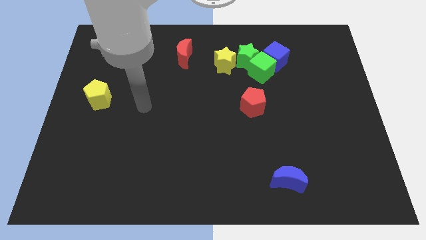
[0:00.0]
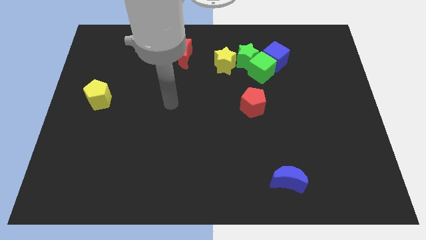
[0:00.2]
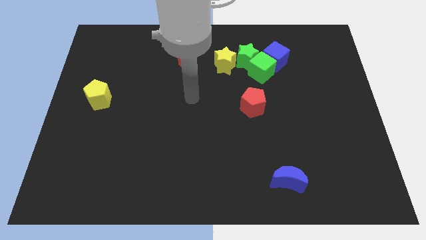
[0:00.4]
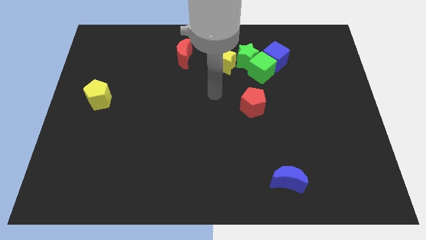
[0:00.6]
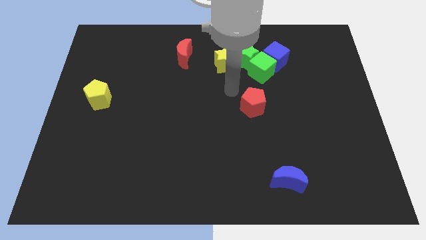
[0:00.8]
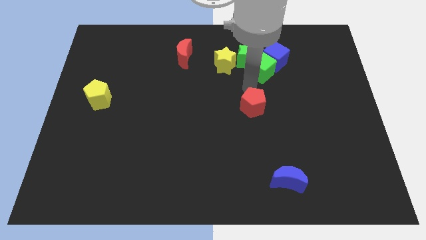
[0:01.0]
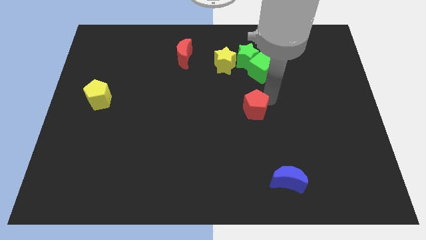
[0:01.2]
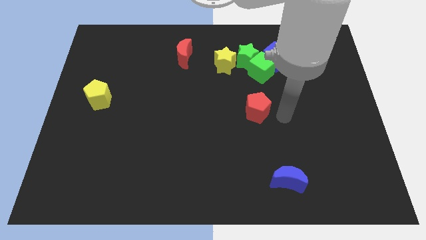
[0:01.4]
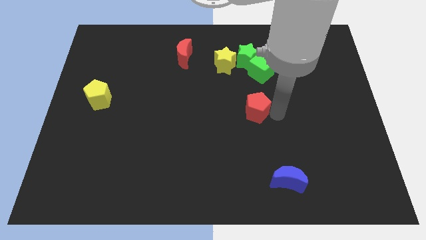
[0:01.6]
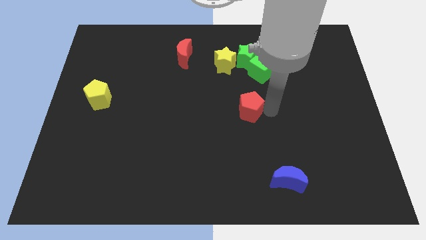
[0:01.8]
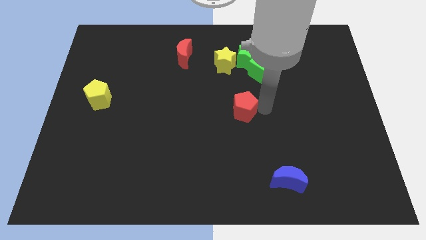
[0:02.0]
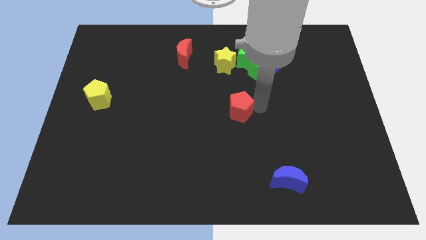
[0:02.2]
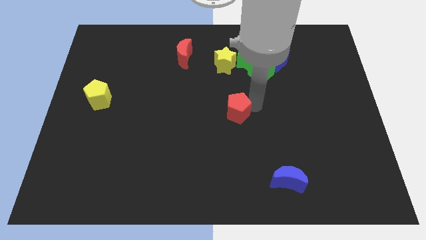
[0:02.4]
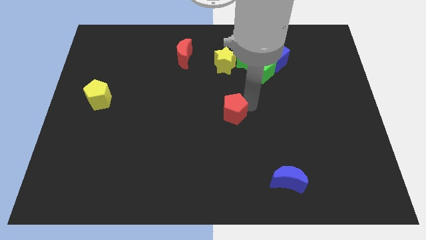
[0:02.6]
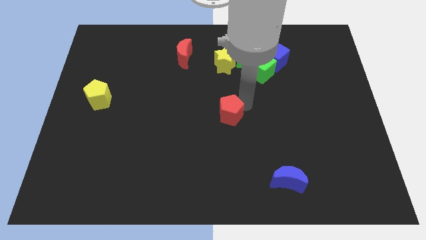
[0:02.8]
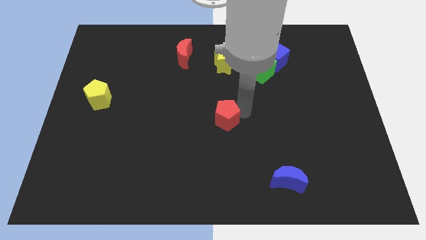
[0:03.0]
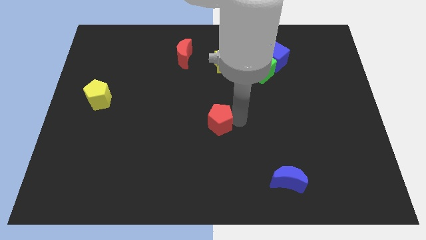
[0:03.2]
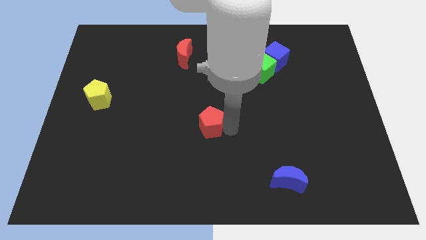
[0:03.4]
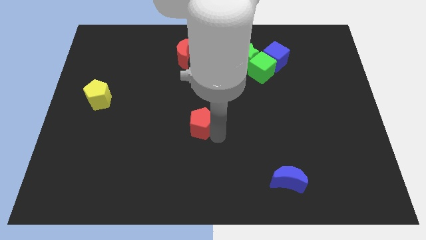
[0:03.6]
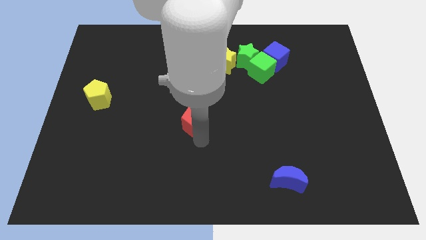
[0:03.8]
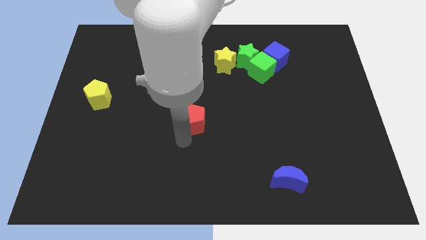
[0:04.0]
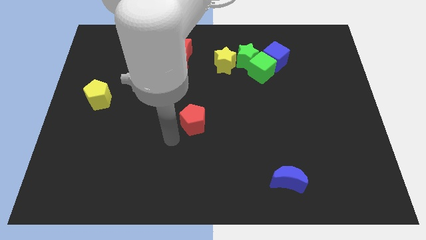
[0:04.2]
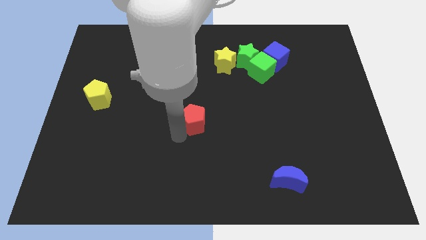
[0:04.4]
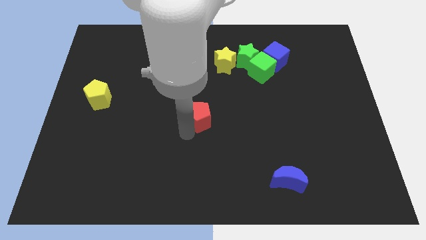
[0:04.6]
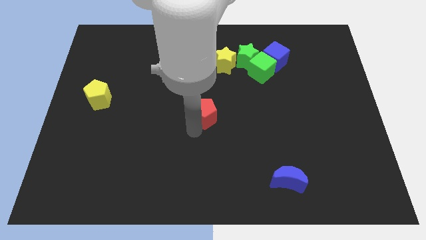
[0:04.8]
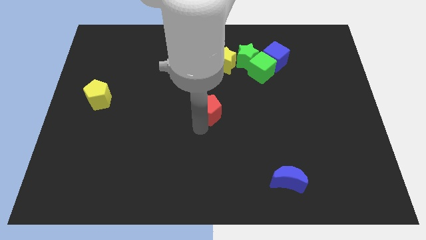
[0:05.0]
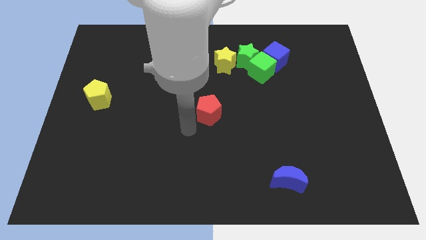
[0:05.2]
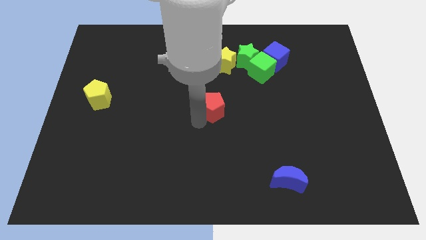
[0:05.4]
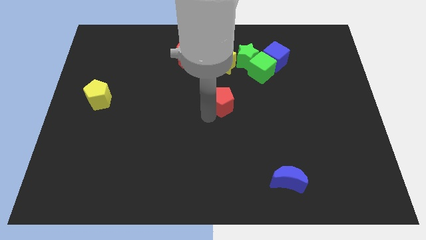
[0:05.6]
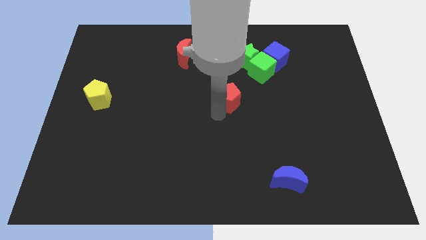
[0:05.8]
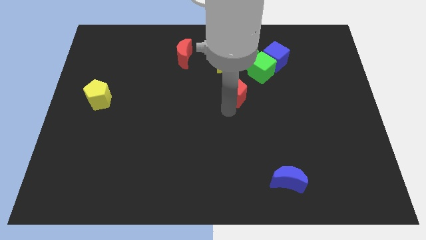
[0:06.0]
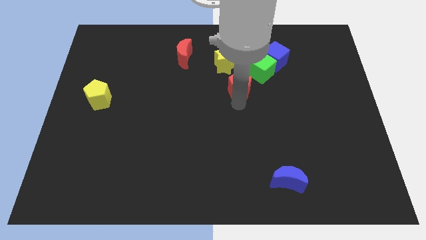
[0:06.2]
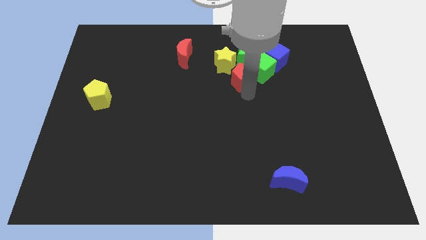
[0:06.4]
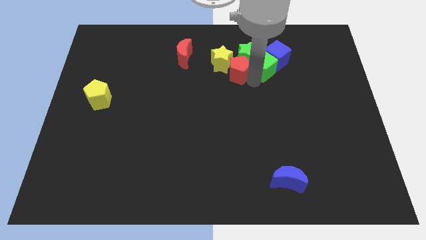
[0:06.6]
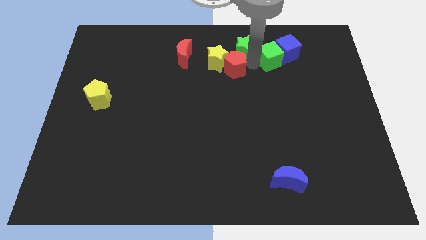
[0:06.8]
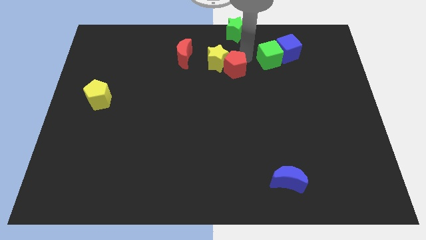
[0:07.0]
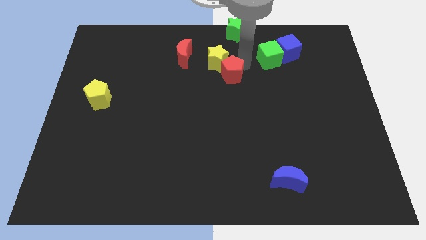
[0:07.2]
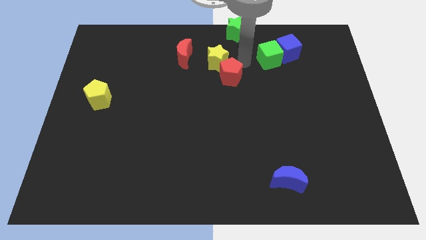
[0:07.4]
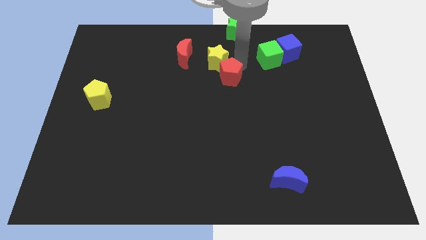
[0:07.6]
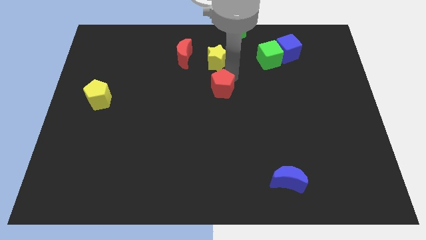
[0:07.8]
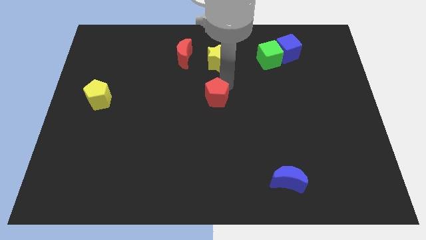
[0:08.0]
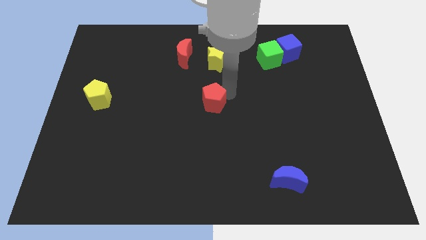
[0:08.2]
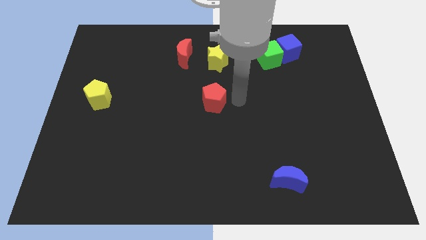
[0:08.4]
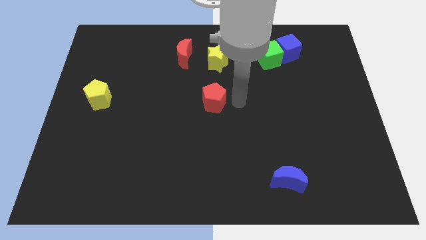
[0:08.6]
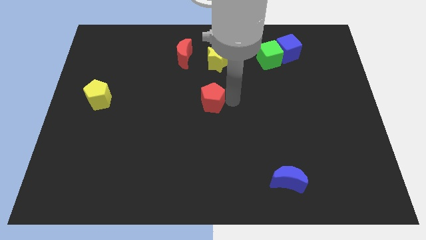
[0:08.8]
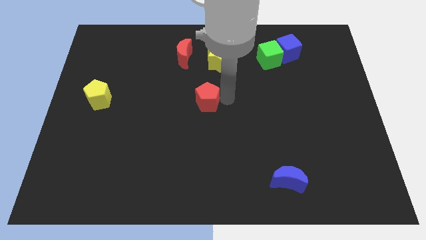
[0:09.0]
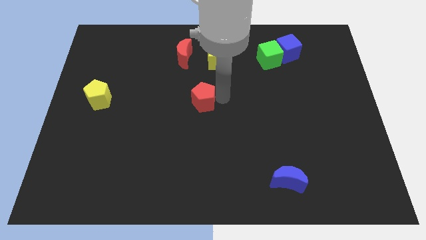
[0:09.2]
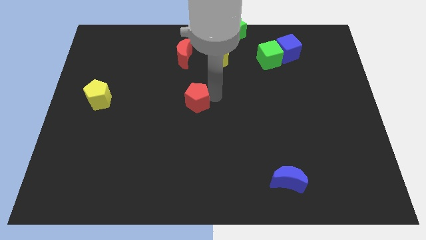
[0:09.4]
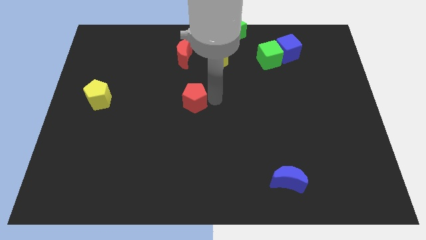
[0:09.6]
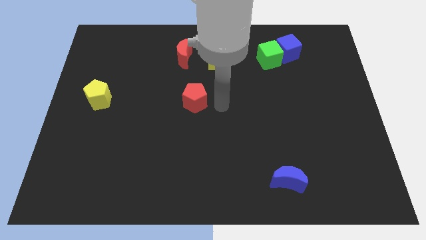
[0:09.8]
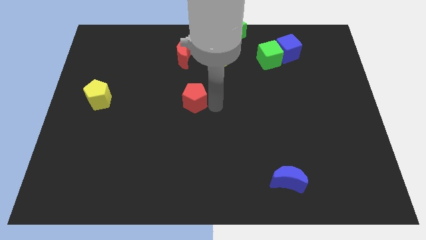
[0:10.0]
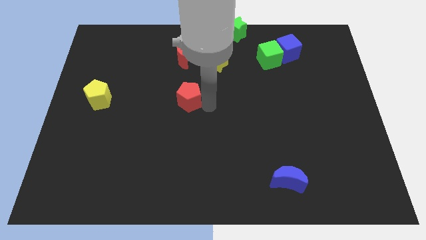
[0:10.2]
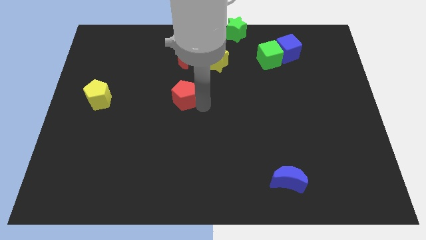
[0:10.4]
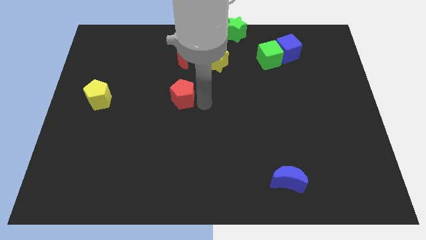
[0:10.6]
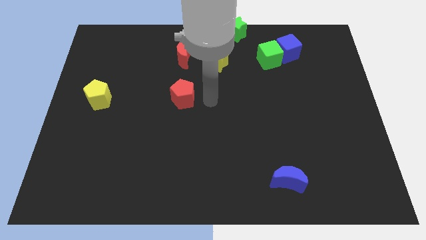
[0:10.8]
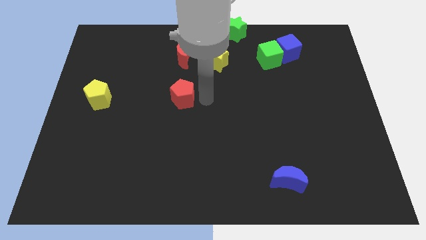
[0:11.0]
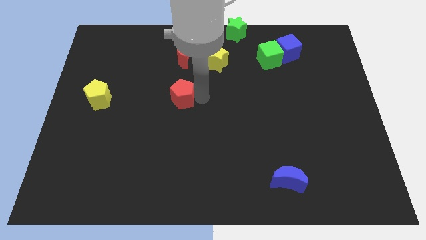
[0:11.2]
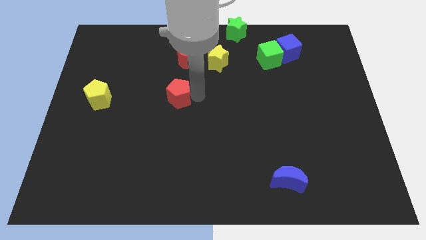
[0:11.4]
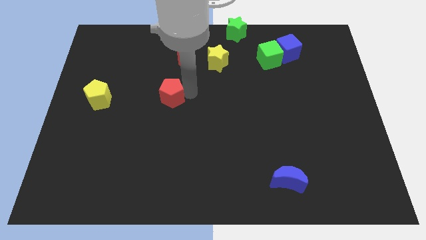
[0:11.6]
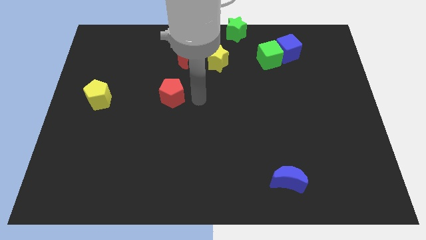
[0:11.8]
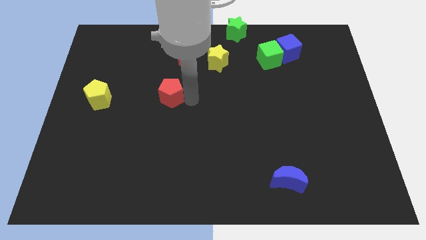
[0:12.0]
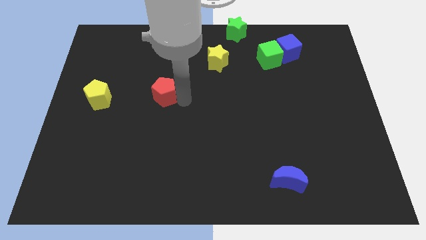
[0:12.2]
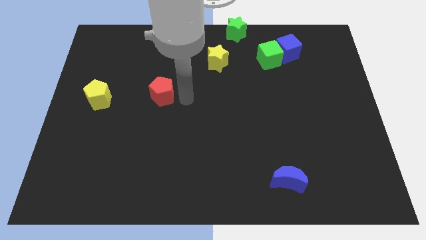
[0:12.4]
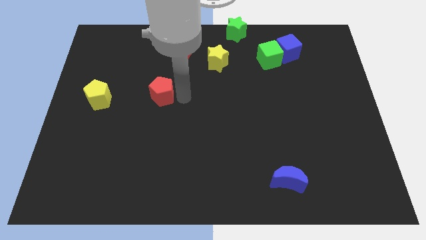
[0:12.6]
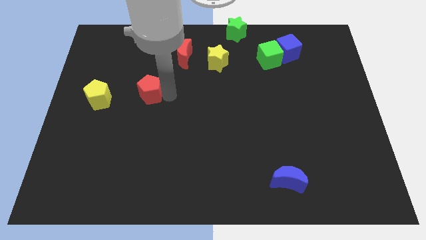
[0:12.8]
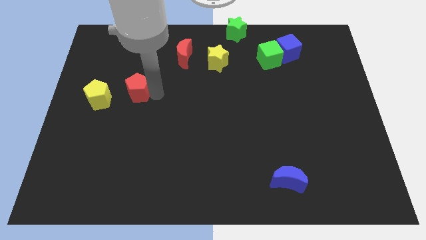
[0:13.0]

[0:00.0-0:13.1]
put the red pentagon to the top right of the yellow pentagon
